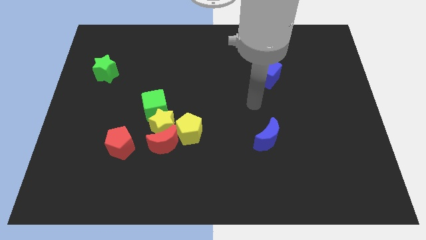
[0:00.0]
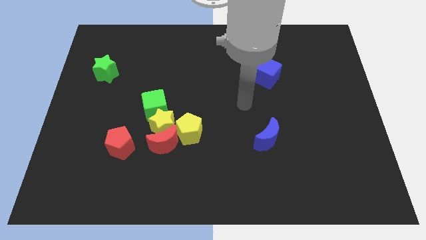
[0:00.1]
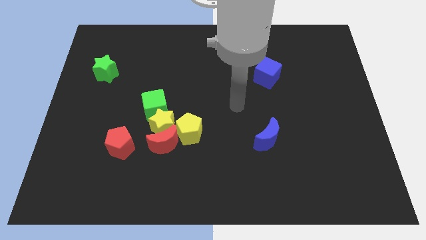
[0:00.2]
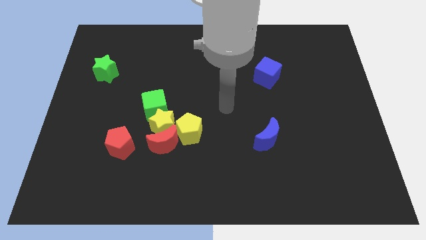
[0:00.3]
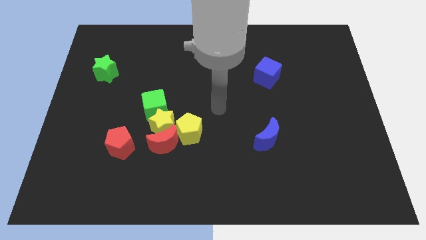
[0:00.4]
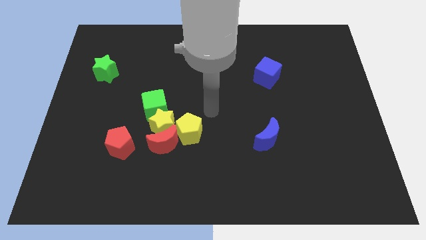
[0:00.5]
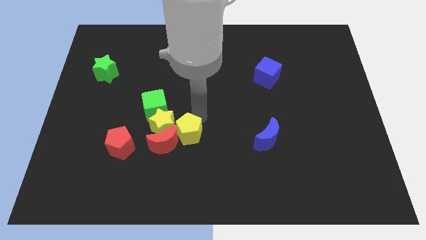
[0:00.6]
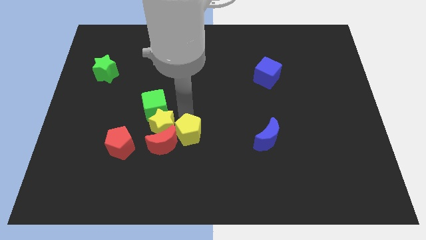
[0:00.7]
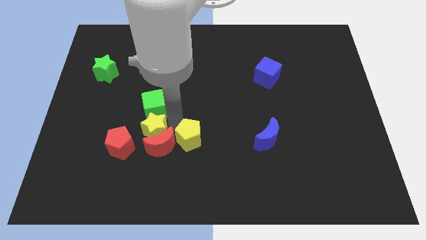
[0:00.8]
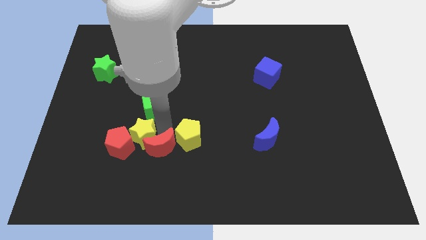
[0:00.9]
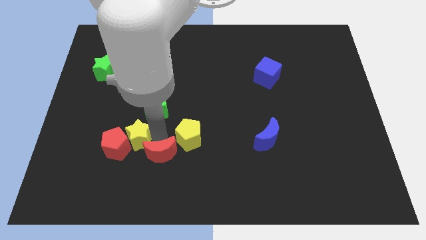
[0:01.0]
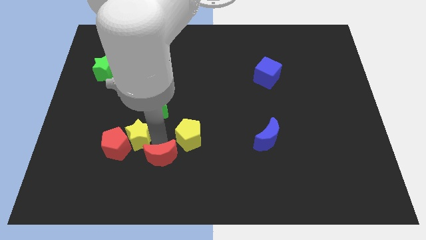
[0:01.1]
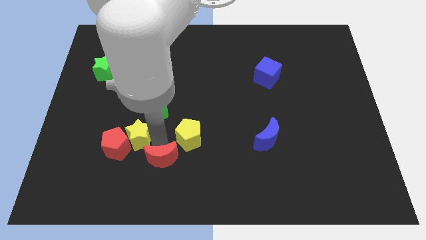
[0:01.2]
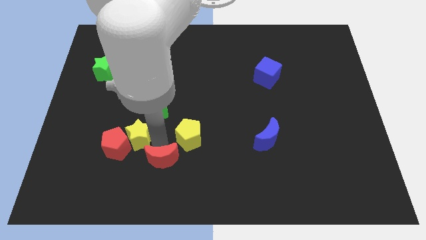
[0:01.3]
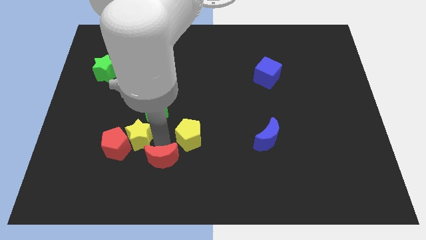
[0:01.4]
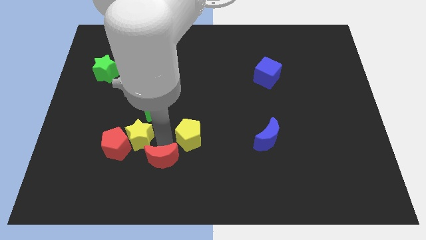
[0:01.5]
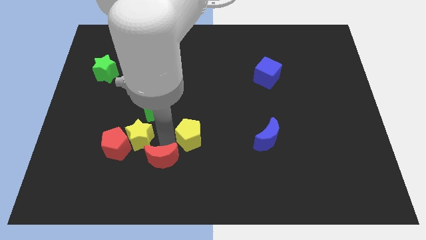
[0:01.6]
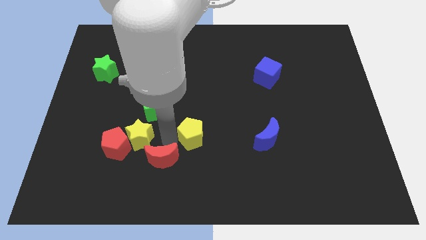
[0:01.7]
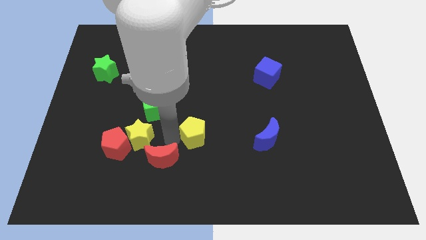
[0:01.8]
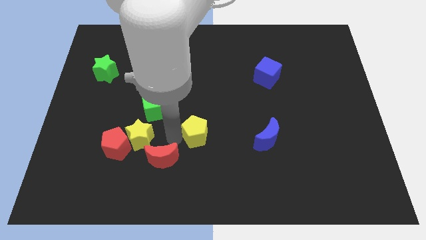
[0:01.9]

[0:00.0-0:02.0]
separate the yellow pentagon from the yellow star and red moon

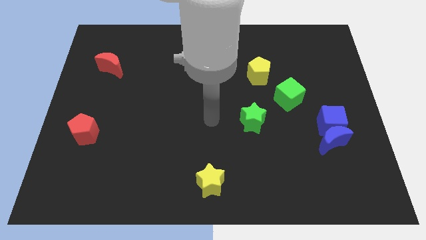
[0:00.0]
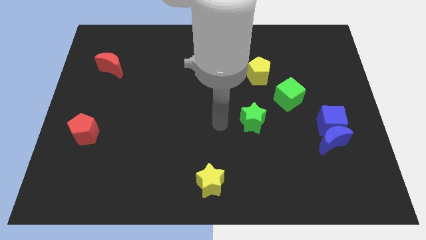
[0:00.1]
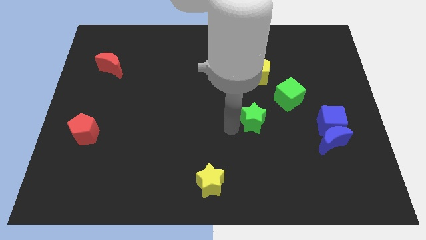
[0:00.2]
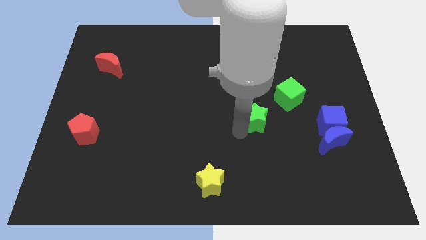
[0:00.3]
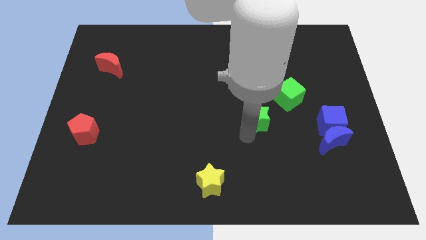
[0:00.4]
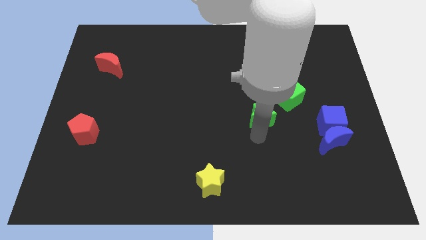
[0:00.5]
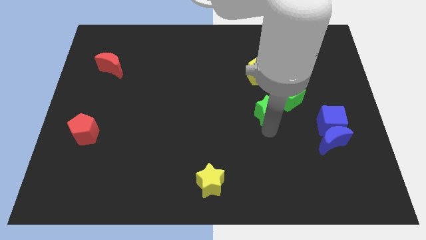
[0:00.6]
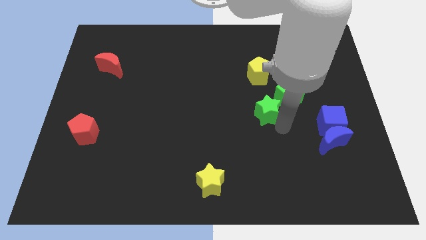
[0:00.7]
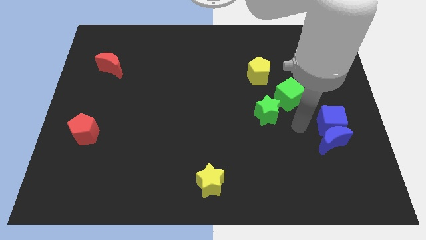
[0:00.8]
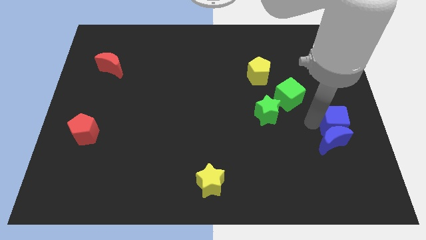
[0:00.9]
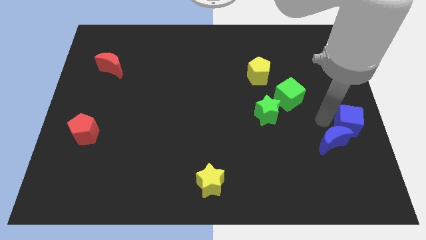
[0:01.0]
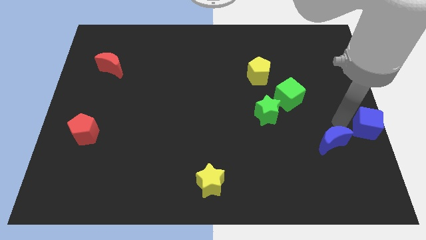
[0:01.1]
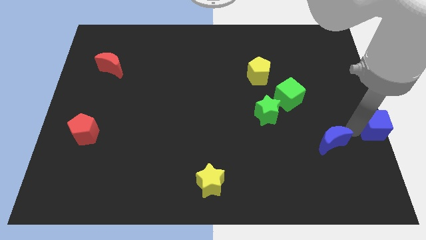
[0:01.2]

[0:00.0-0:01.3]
separate the blue moon from the blue cube

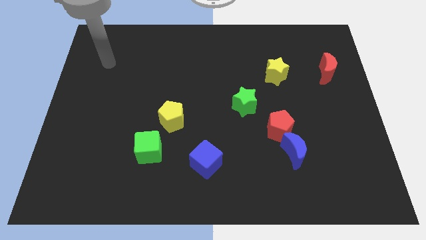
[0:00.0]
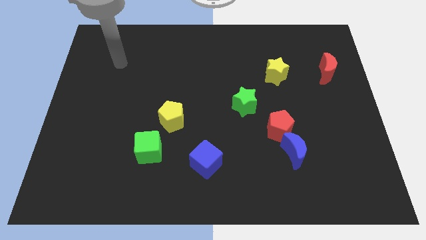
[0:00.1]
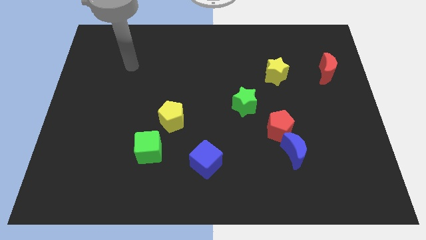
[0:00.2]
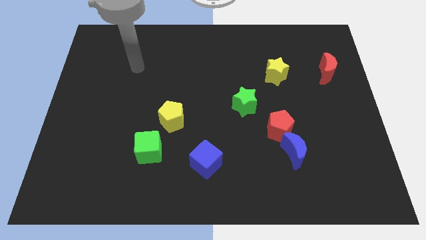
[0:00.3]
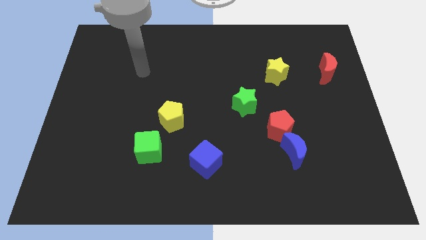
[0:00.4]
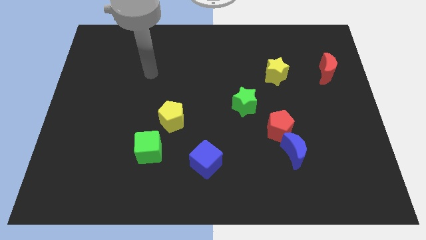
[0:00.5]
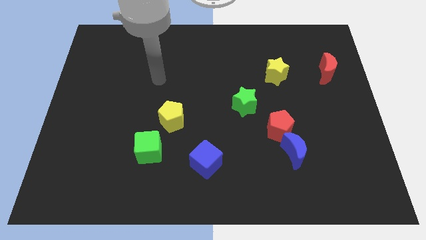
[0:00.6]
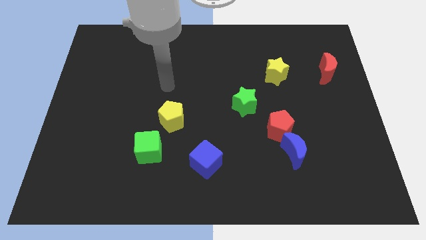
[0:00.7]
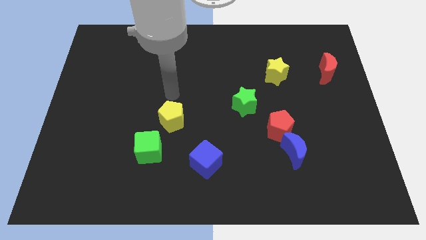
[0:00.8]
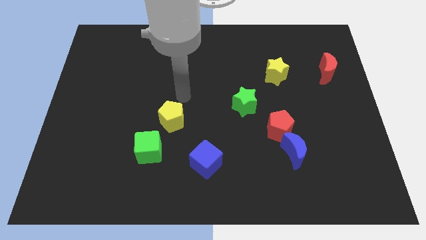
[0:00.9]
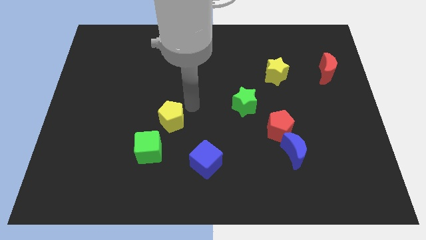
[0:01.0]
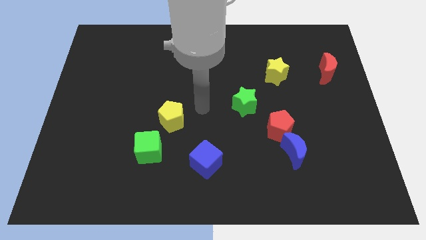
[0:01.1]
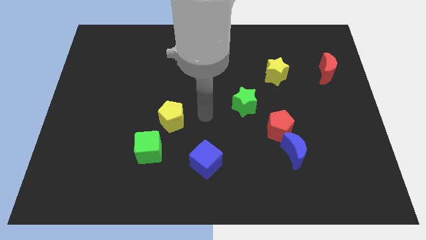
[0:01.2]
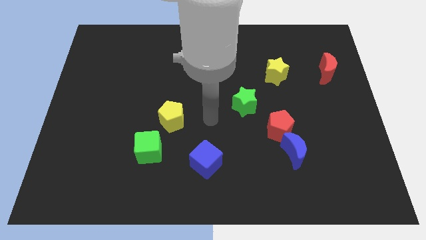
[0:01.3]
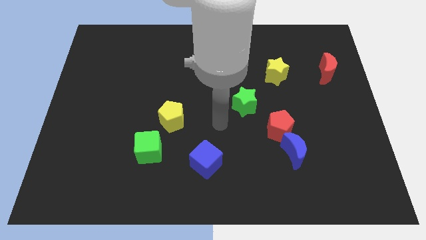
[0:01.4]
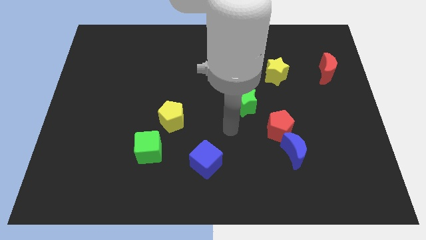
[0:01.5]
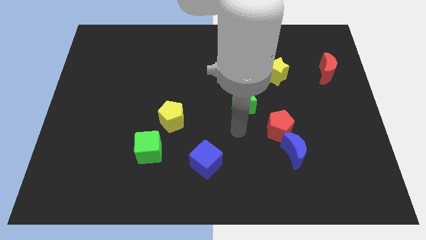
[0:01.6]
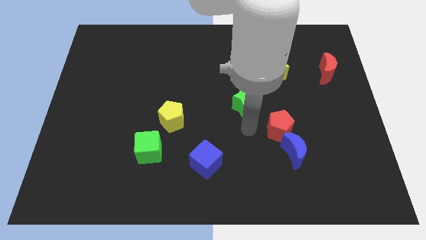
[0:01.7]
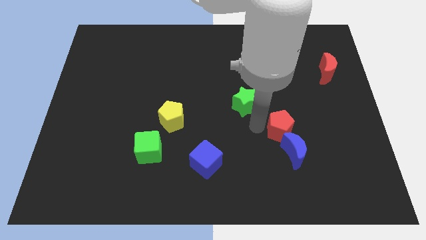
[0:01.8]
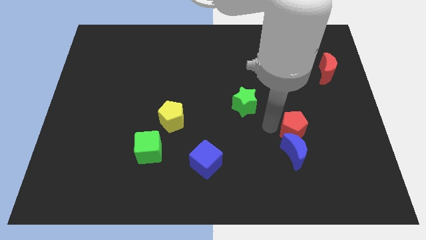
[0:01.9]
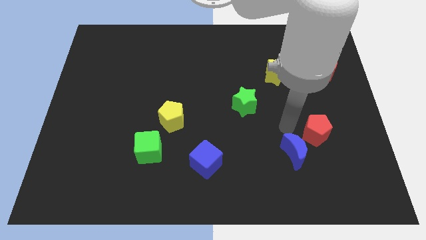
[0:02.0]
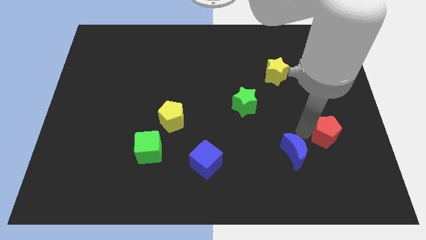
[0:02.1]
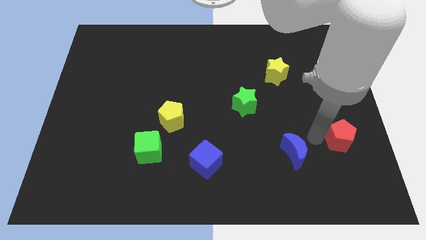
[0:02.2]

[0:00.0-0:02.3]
move the blue moon away from the red pentagon

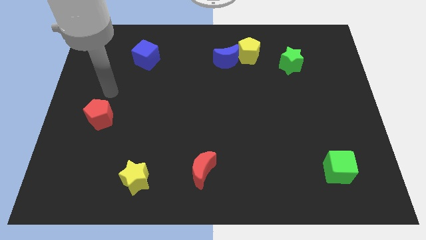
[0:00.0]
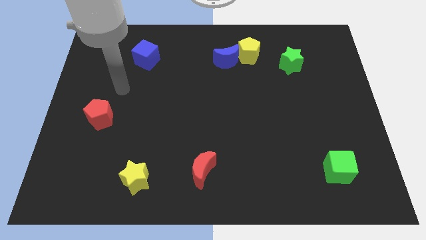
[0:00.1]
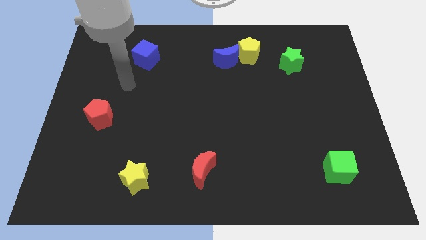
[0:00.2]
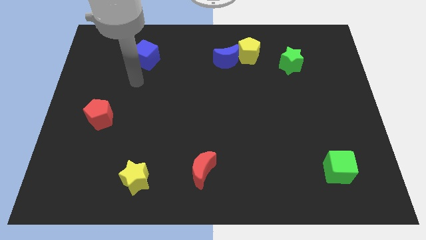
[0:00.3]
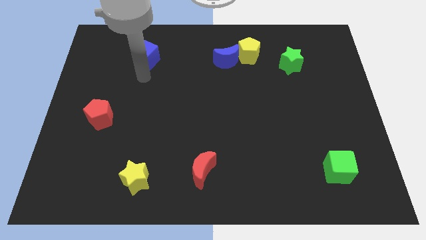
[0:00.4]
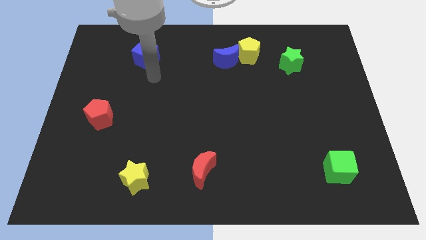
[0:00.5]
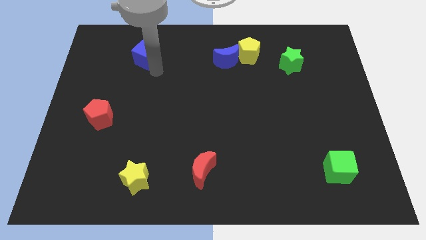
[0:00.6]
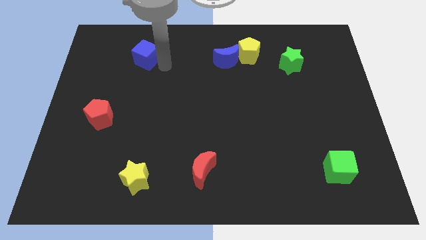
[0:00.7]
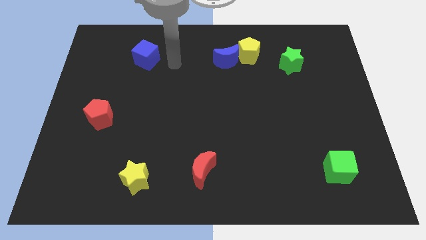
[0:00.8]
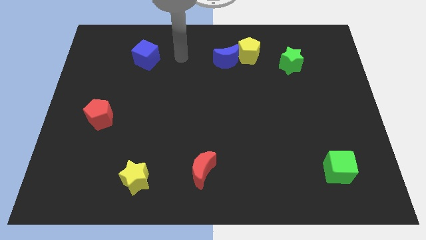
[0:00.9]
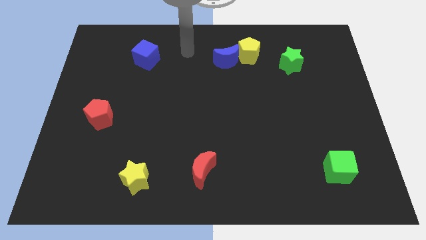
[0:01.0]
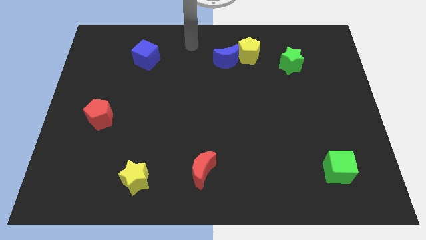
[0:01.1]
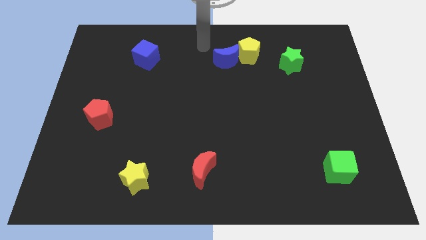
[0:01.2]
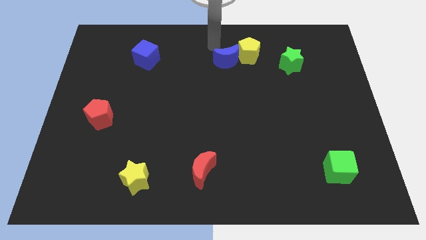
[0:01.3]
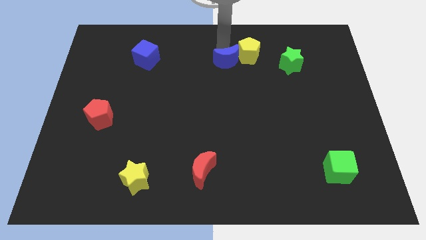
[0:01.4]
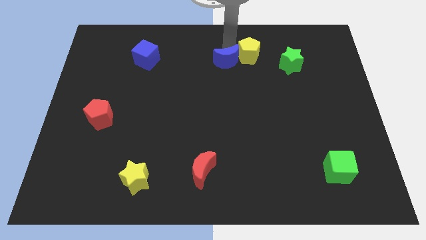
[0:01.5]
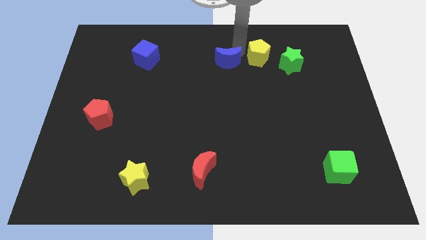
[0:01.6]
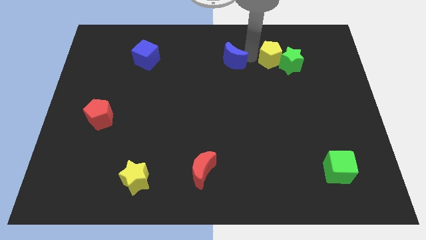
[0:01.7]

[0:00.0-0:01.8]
move the blue moon away from the yellow pentagon

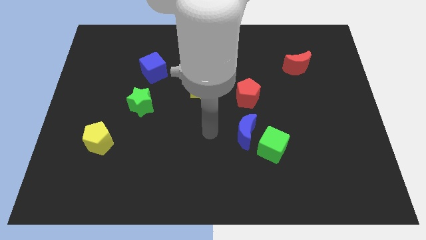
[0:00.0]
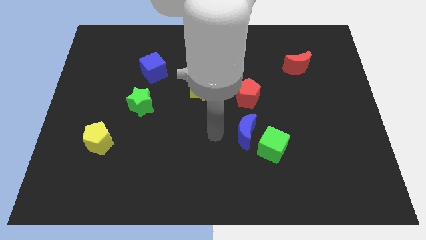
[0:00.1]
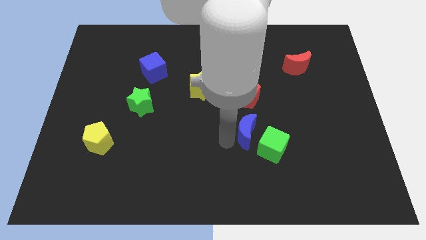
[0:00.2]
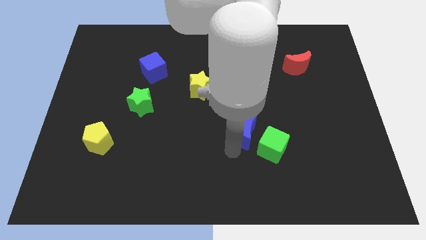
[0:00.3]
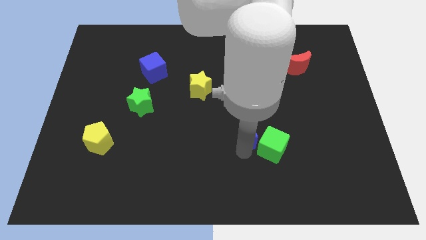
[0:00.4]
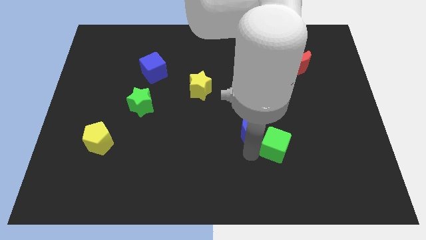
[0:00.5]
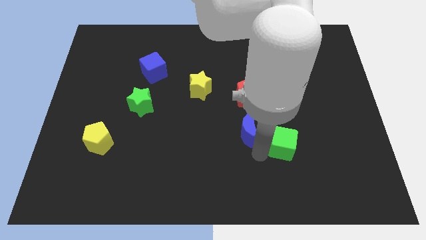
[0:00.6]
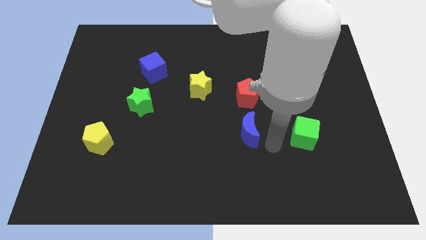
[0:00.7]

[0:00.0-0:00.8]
separate the blue moon from the green cube

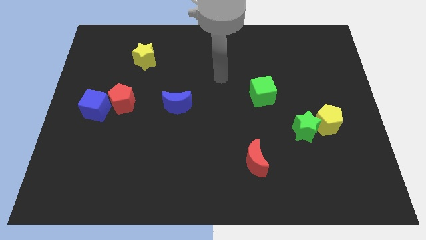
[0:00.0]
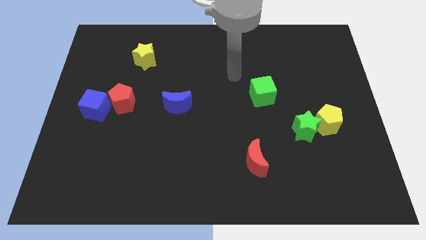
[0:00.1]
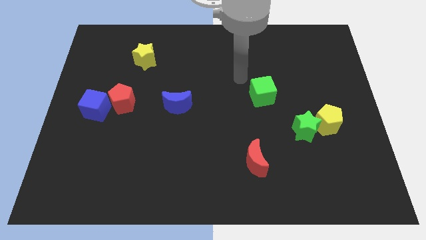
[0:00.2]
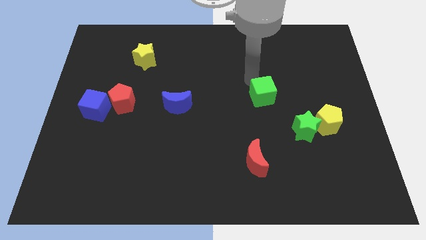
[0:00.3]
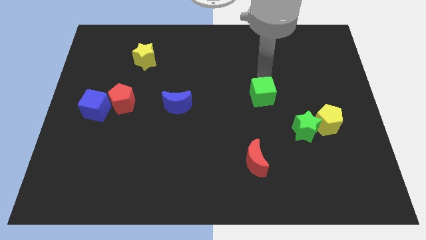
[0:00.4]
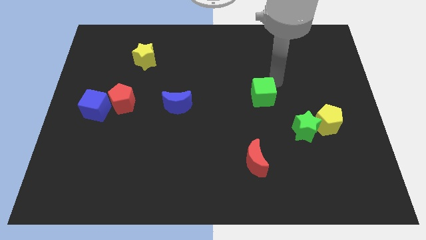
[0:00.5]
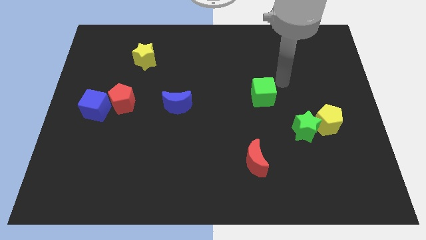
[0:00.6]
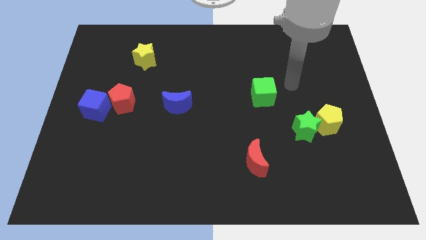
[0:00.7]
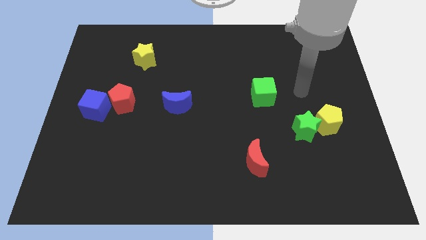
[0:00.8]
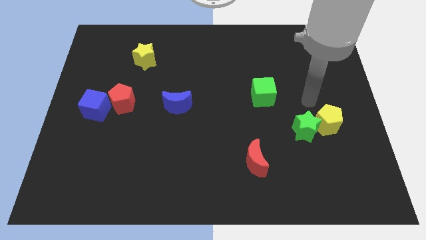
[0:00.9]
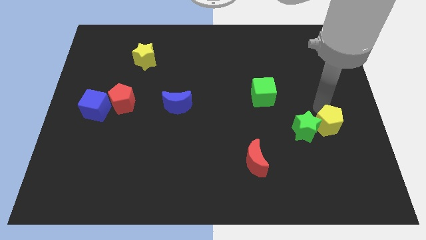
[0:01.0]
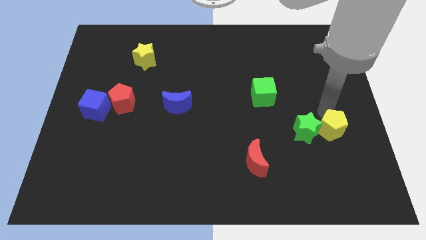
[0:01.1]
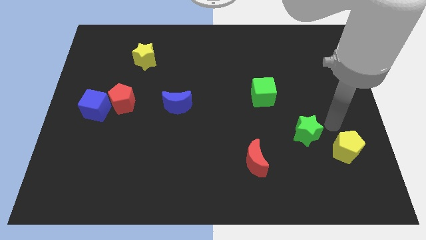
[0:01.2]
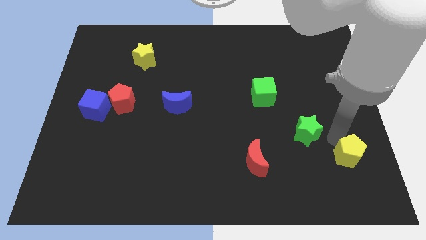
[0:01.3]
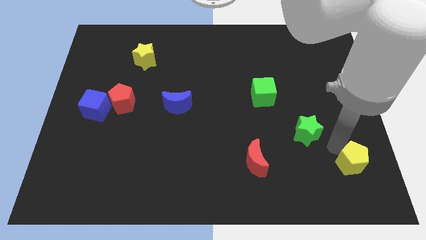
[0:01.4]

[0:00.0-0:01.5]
move the green star away from the yellow pentagon
